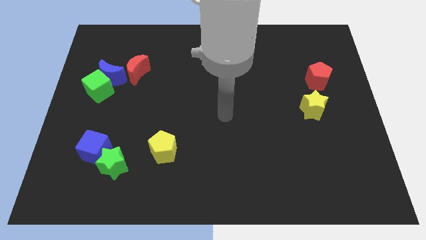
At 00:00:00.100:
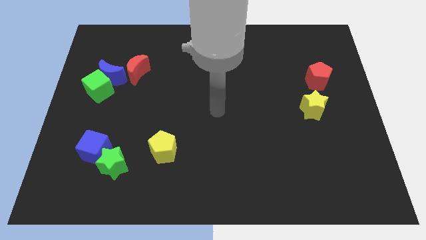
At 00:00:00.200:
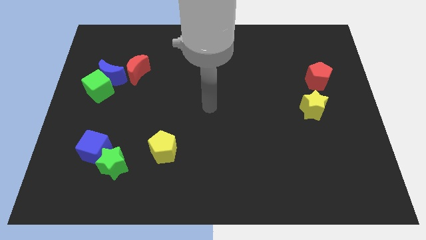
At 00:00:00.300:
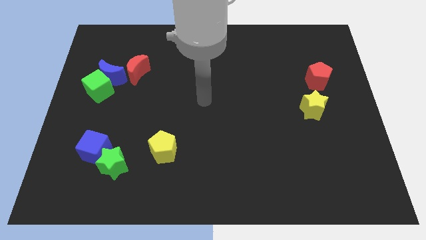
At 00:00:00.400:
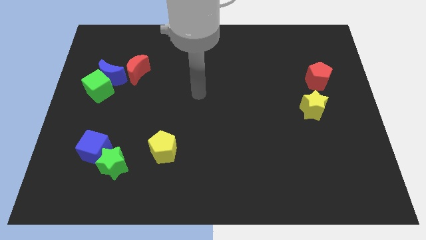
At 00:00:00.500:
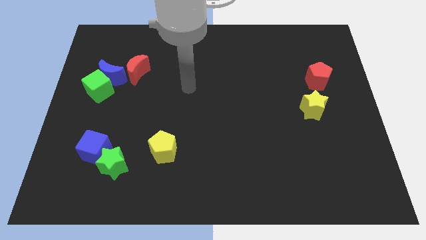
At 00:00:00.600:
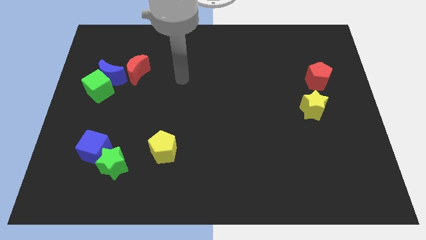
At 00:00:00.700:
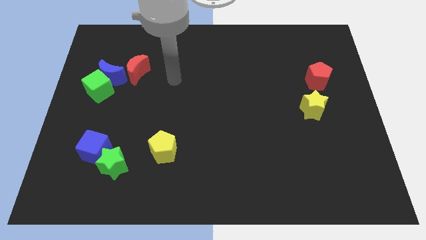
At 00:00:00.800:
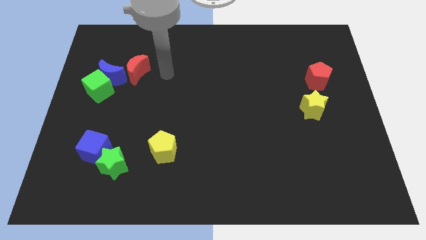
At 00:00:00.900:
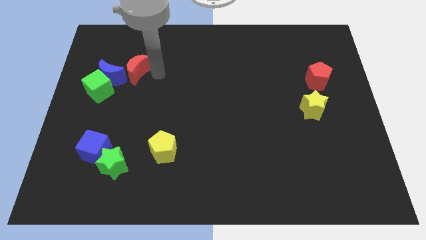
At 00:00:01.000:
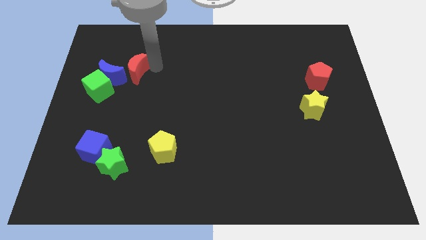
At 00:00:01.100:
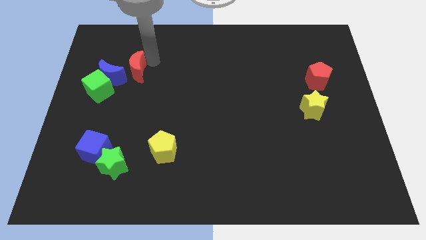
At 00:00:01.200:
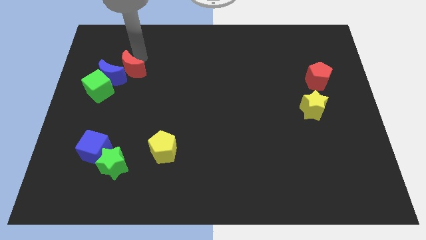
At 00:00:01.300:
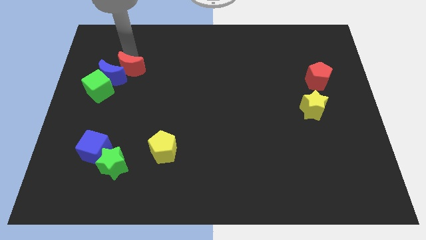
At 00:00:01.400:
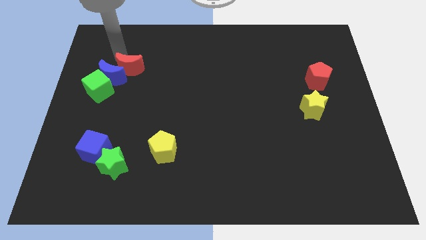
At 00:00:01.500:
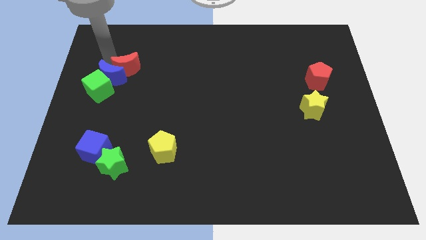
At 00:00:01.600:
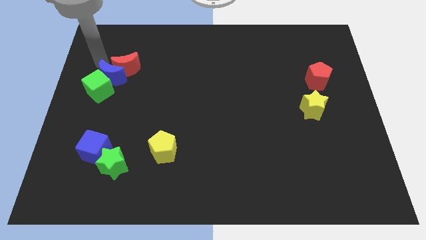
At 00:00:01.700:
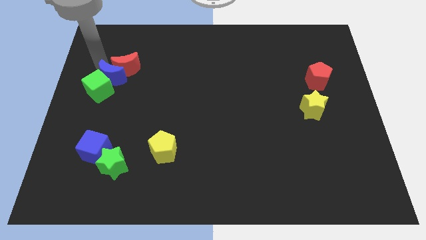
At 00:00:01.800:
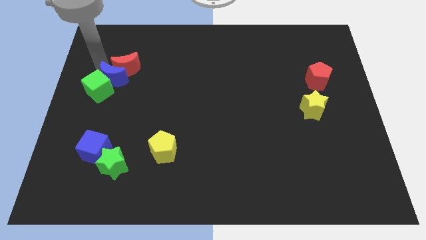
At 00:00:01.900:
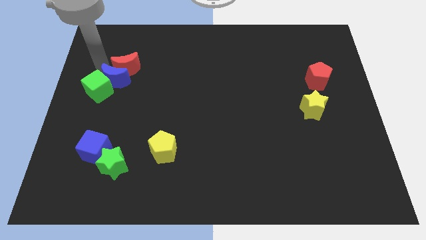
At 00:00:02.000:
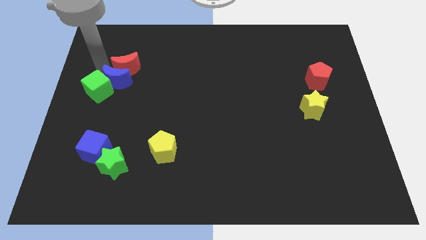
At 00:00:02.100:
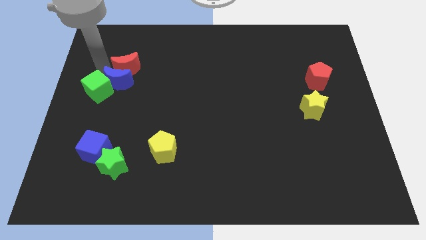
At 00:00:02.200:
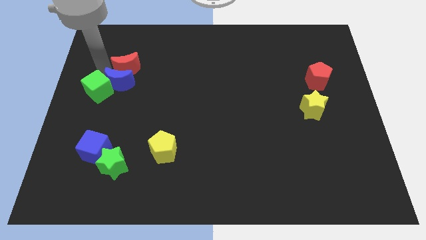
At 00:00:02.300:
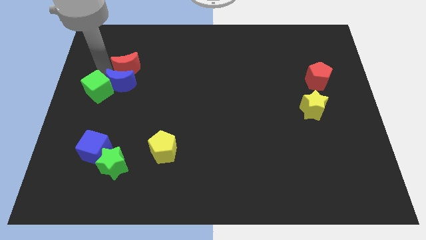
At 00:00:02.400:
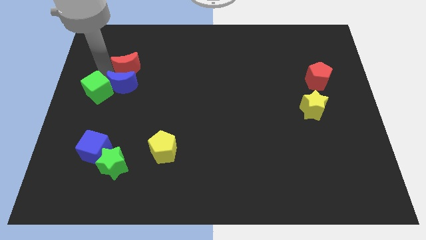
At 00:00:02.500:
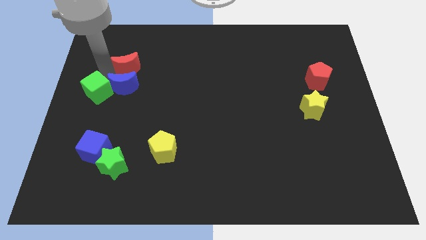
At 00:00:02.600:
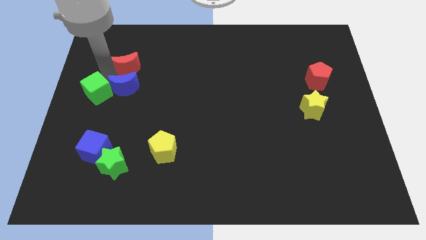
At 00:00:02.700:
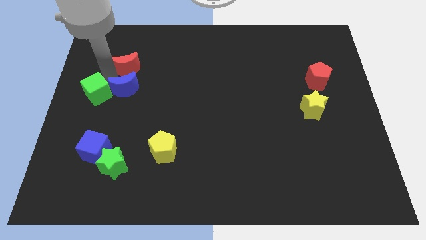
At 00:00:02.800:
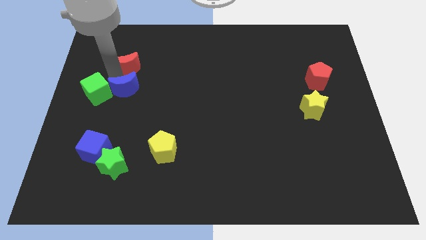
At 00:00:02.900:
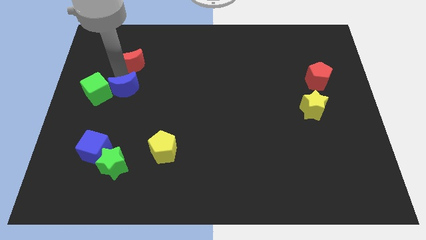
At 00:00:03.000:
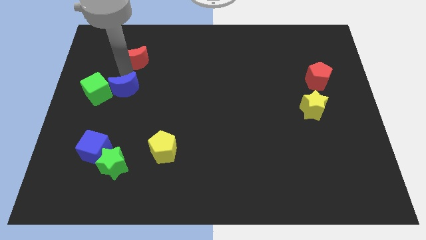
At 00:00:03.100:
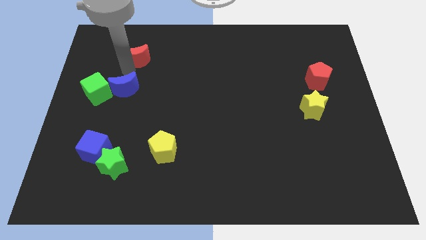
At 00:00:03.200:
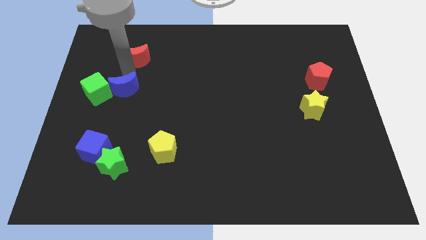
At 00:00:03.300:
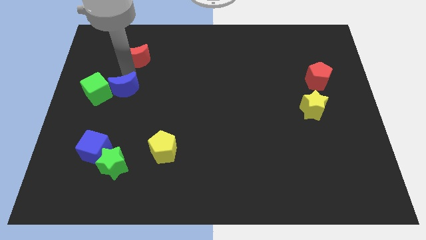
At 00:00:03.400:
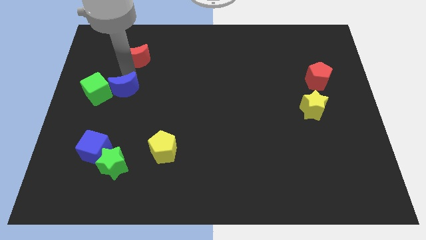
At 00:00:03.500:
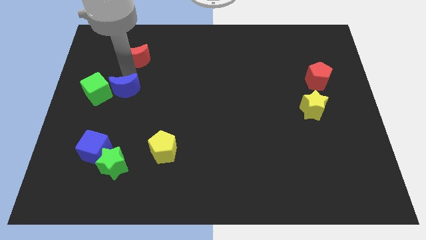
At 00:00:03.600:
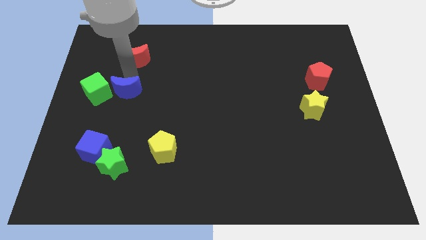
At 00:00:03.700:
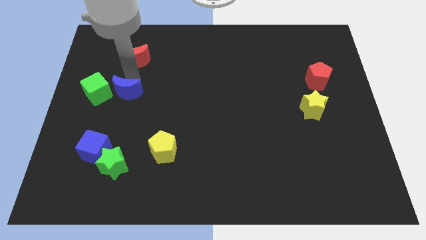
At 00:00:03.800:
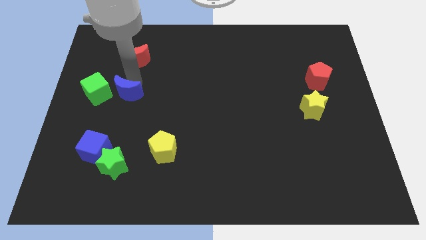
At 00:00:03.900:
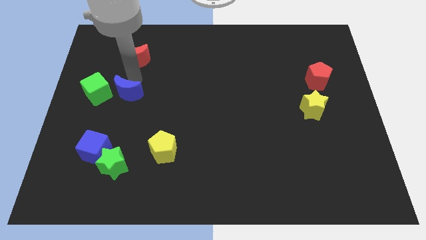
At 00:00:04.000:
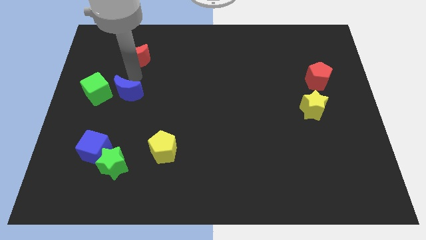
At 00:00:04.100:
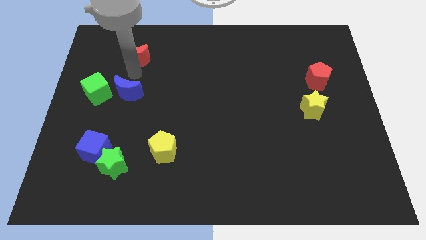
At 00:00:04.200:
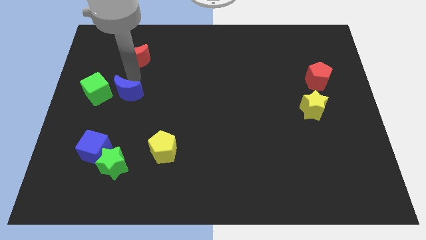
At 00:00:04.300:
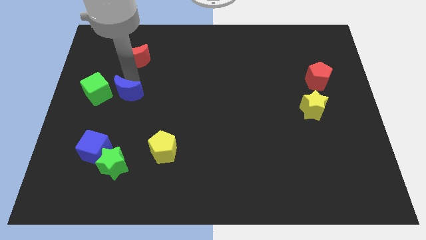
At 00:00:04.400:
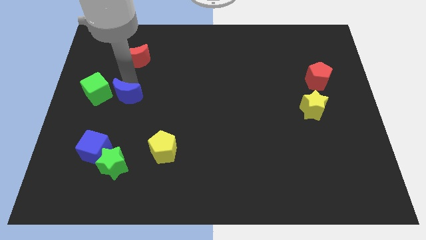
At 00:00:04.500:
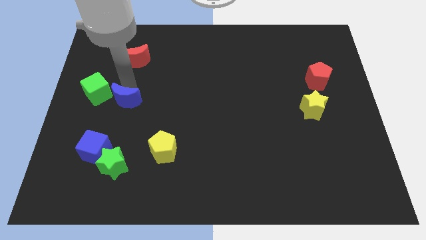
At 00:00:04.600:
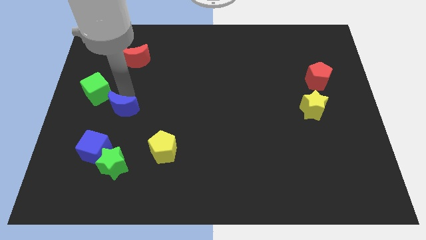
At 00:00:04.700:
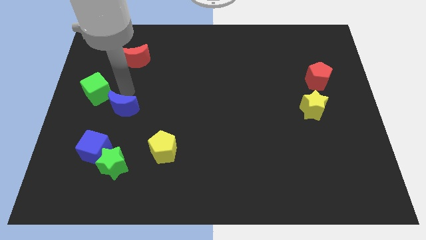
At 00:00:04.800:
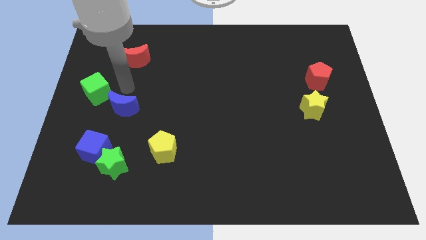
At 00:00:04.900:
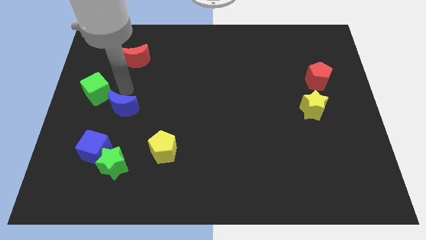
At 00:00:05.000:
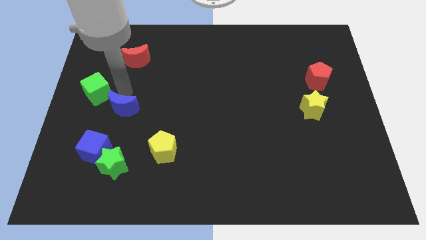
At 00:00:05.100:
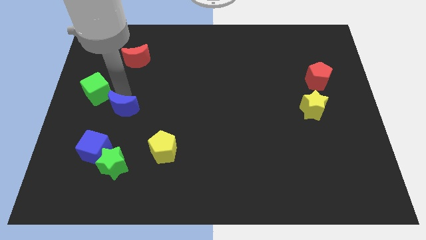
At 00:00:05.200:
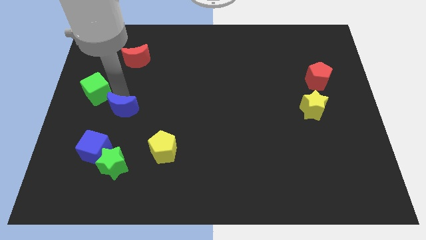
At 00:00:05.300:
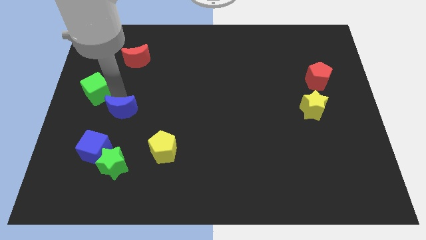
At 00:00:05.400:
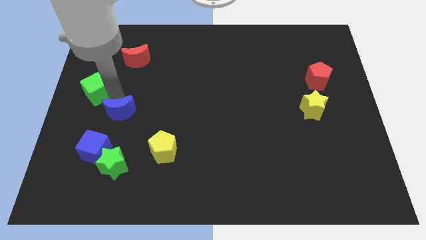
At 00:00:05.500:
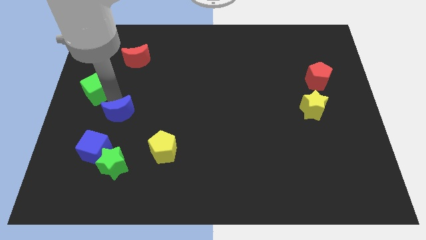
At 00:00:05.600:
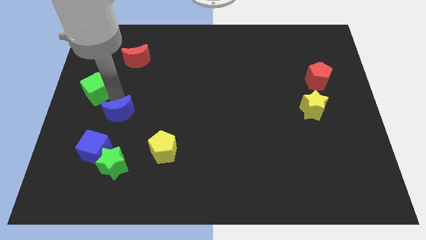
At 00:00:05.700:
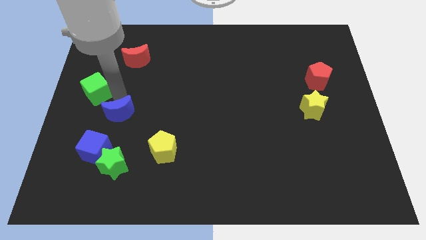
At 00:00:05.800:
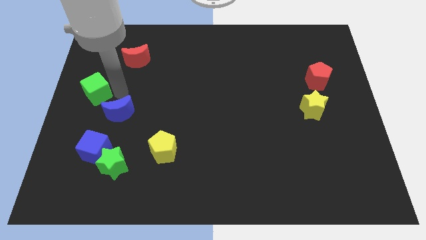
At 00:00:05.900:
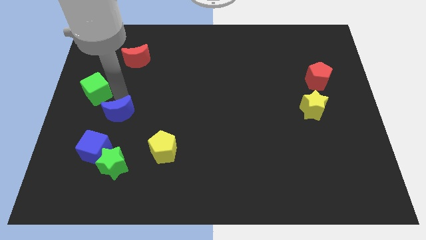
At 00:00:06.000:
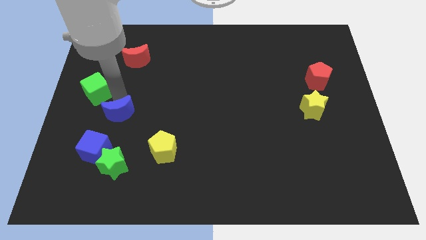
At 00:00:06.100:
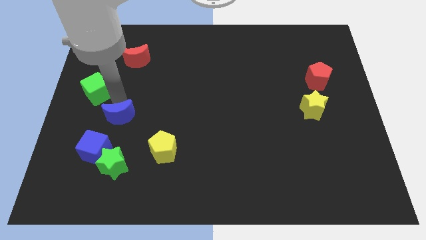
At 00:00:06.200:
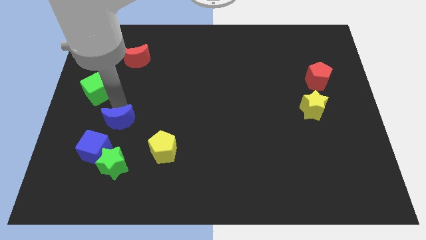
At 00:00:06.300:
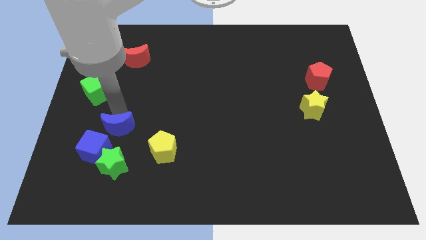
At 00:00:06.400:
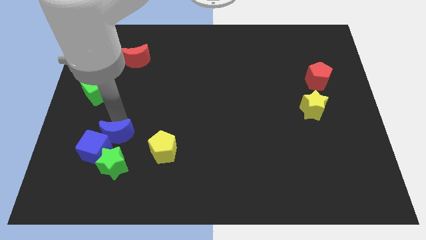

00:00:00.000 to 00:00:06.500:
slide the blue moon just left of the yellow pentagon

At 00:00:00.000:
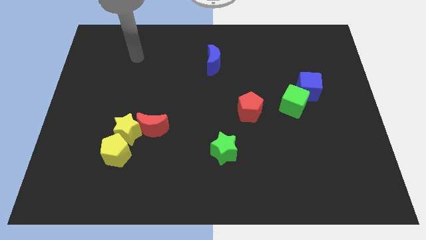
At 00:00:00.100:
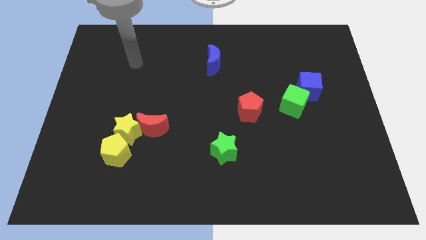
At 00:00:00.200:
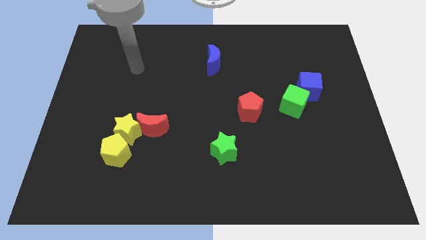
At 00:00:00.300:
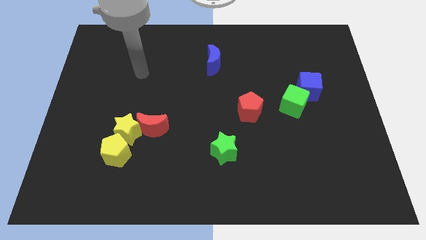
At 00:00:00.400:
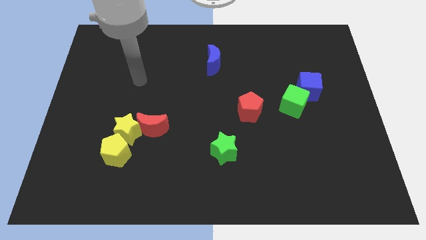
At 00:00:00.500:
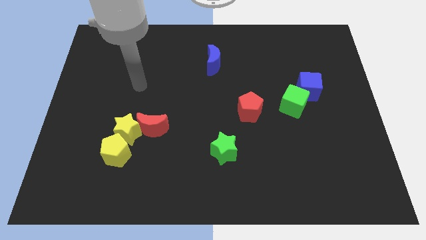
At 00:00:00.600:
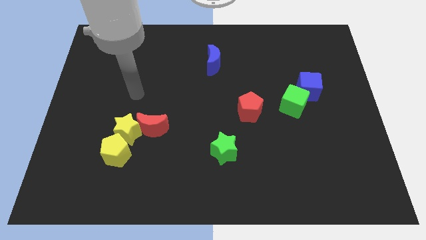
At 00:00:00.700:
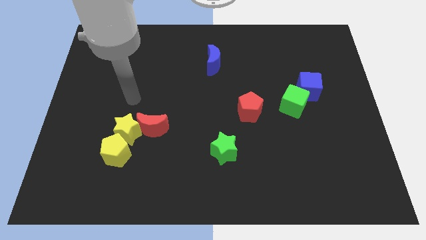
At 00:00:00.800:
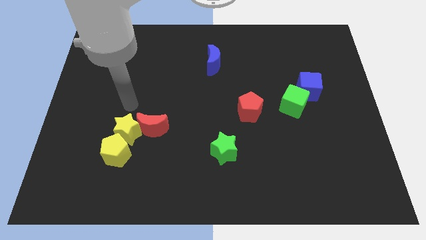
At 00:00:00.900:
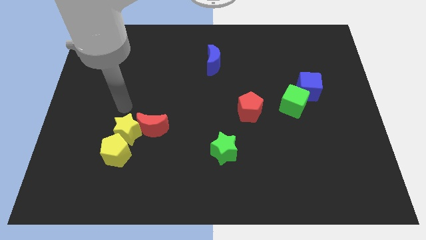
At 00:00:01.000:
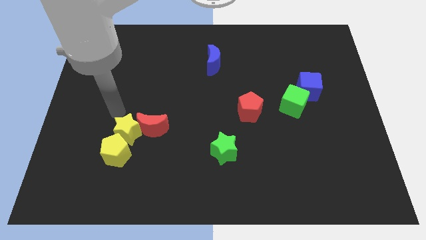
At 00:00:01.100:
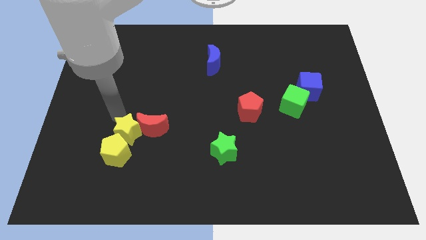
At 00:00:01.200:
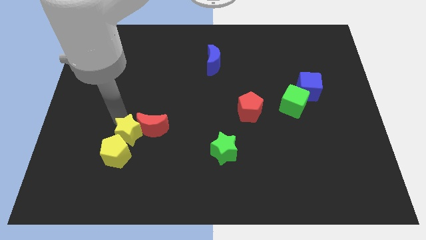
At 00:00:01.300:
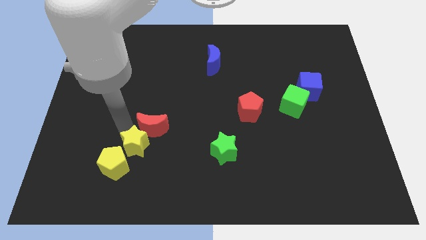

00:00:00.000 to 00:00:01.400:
push the yellow star to the bottom side of the red moon
